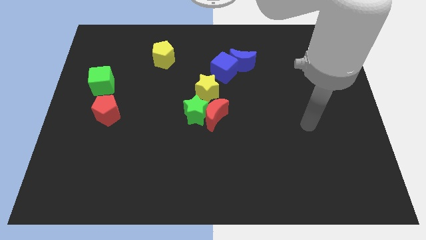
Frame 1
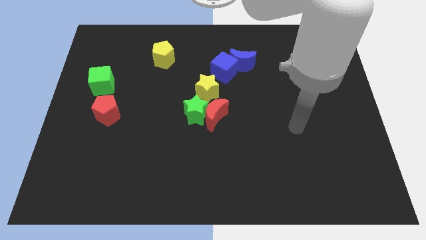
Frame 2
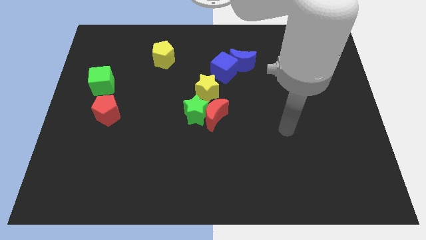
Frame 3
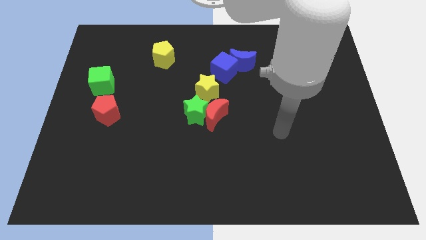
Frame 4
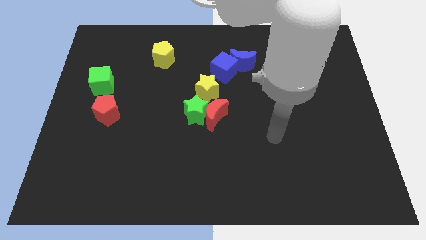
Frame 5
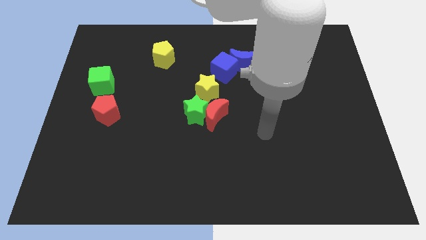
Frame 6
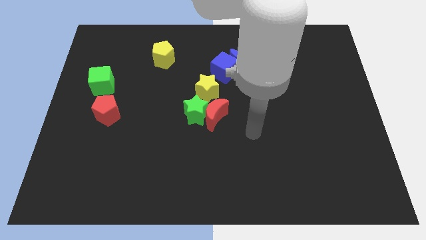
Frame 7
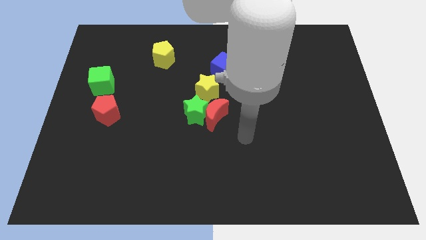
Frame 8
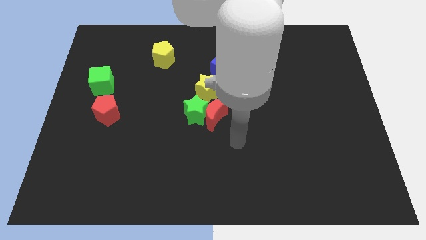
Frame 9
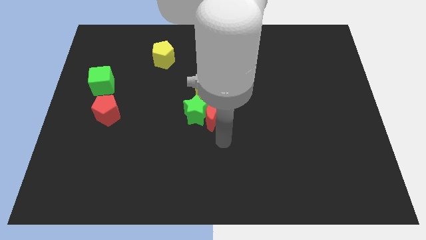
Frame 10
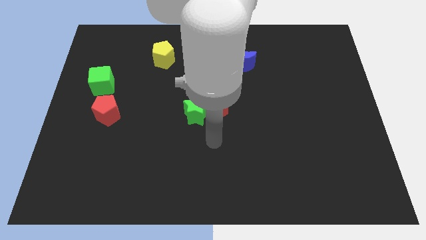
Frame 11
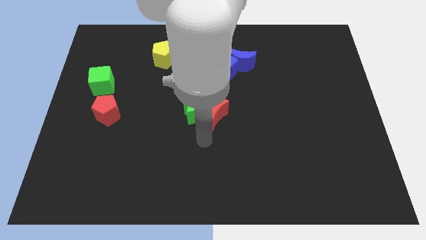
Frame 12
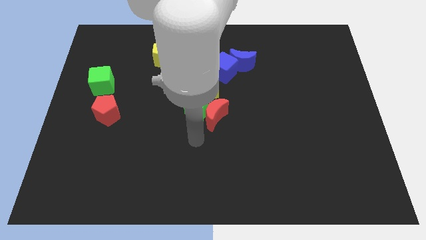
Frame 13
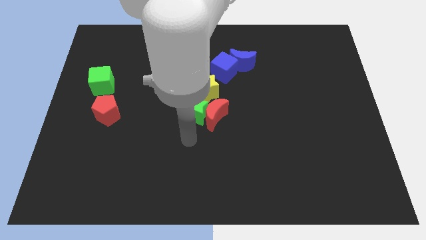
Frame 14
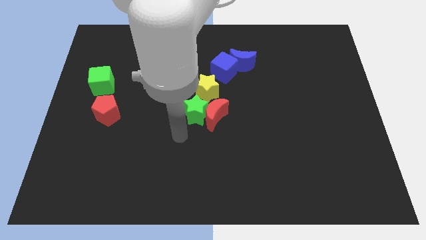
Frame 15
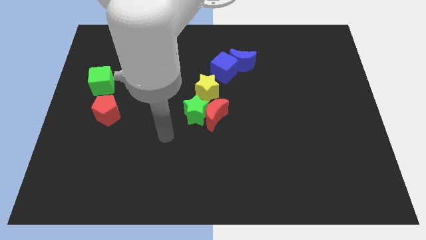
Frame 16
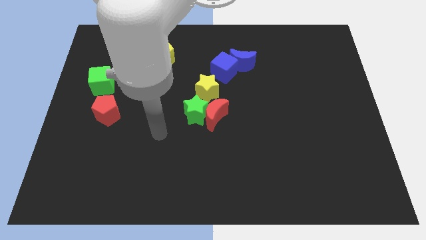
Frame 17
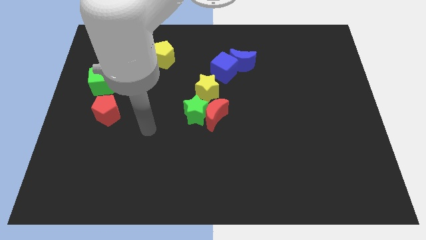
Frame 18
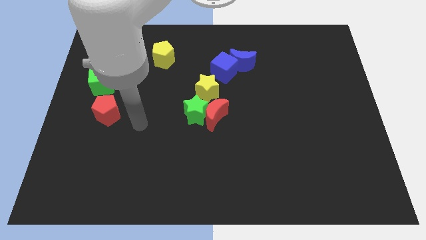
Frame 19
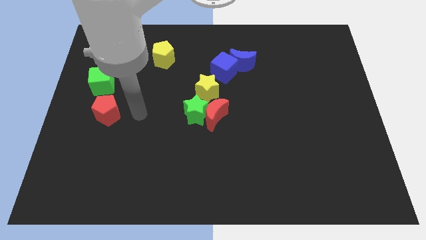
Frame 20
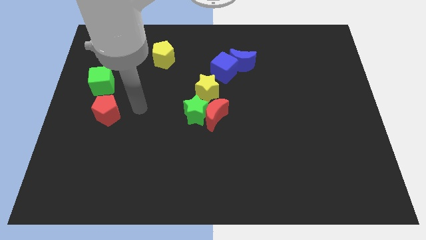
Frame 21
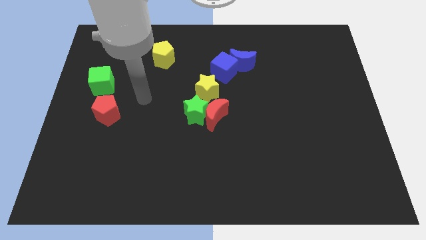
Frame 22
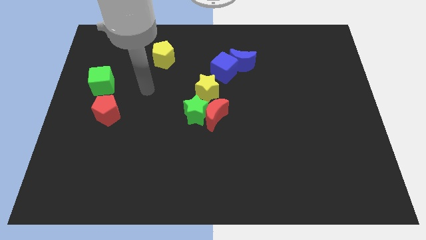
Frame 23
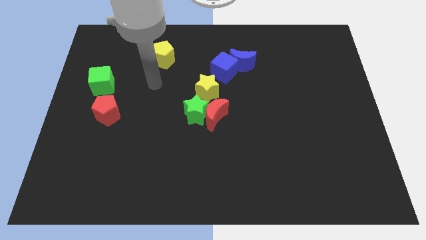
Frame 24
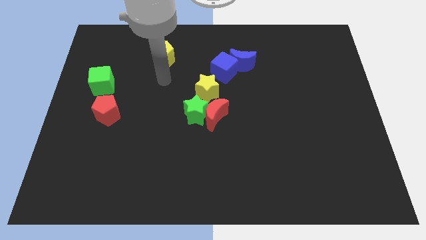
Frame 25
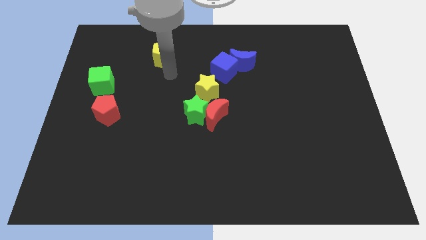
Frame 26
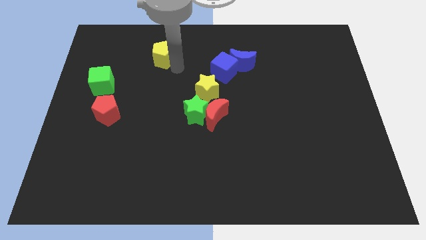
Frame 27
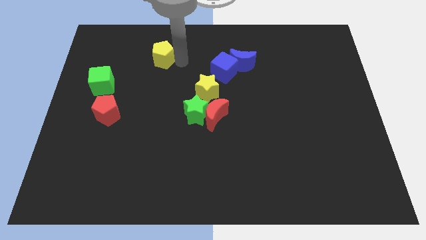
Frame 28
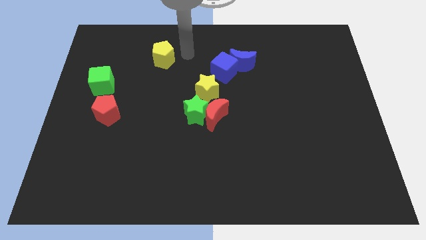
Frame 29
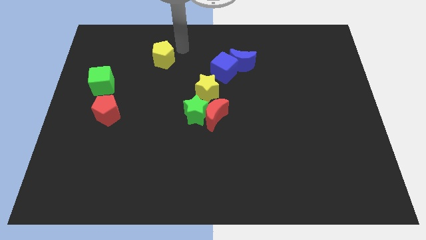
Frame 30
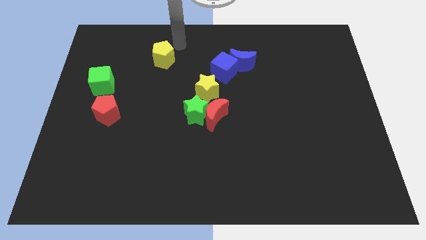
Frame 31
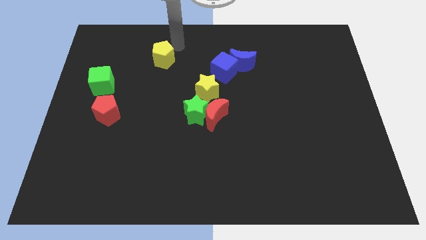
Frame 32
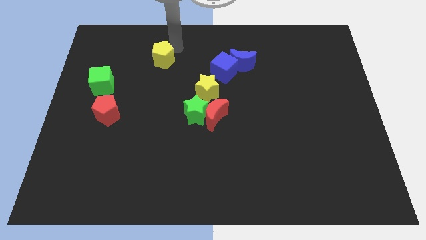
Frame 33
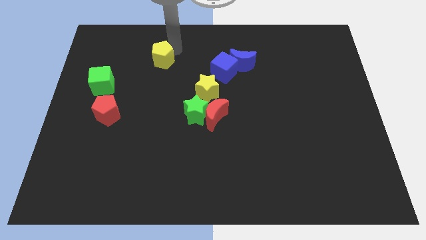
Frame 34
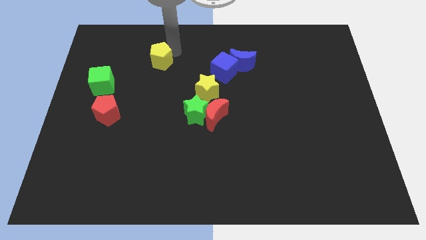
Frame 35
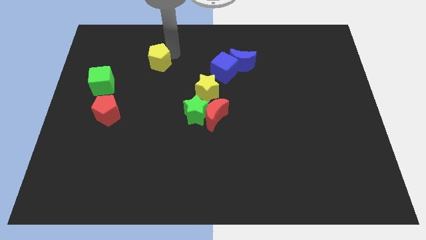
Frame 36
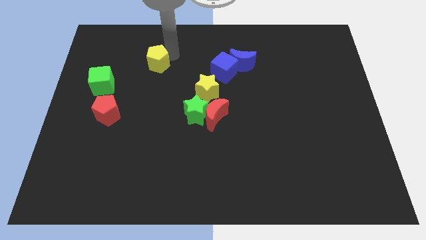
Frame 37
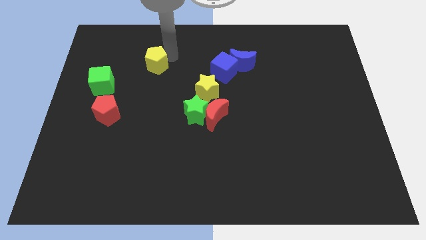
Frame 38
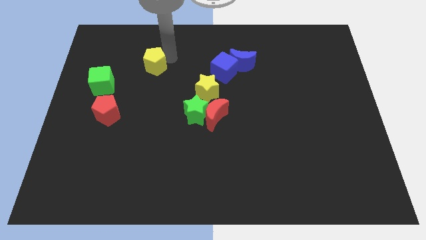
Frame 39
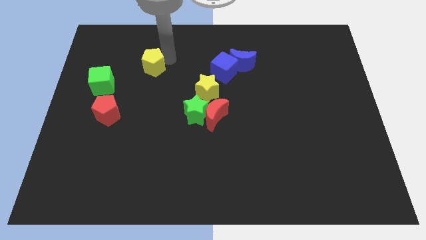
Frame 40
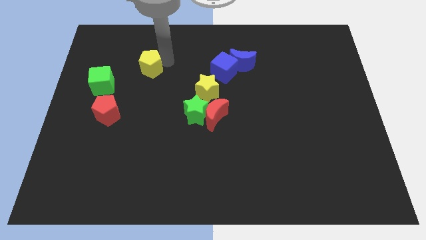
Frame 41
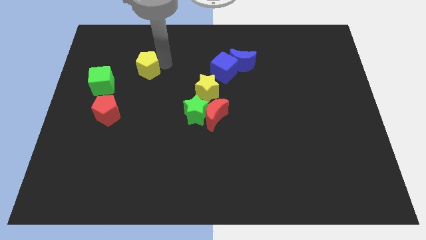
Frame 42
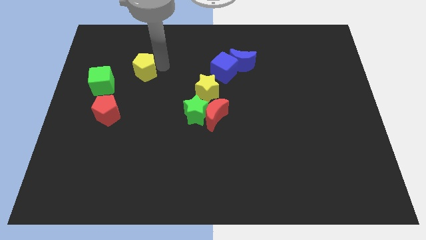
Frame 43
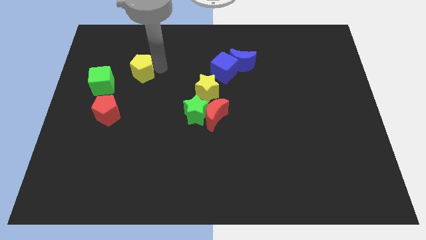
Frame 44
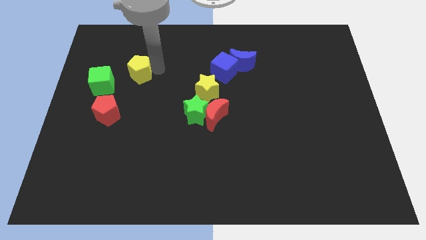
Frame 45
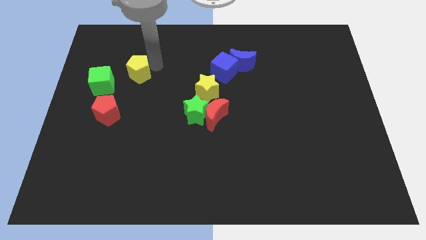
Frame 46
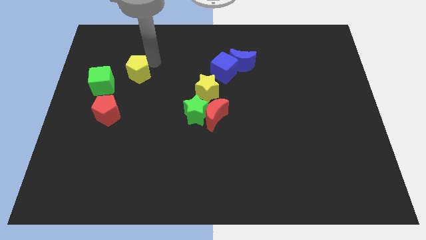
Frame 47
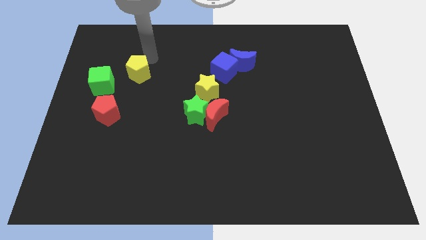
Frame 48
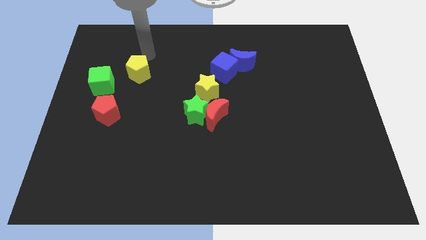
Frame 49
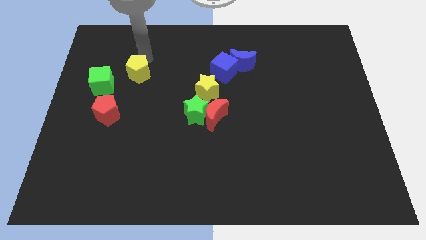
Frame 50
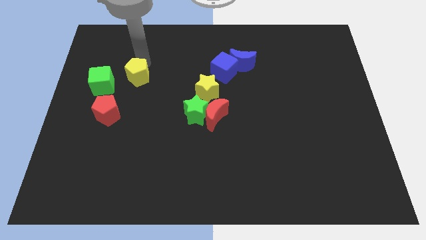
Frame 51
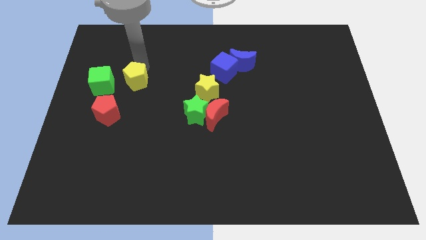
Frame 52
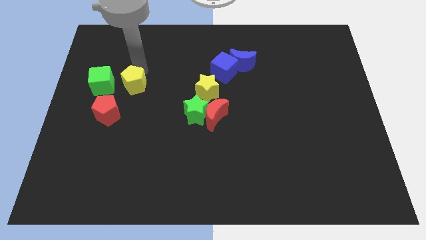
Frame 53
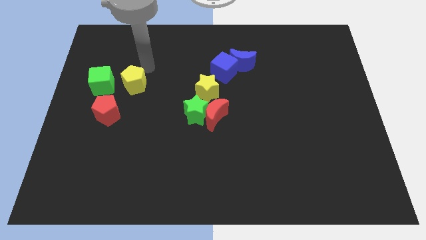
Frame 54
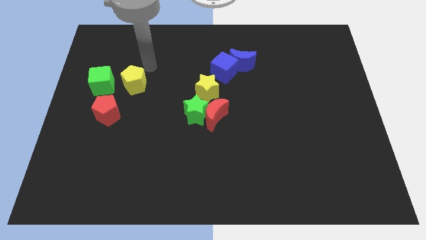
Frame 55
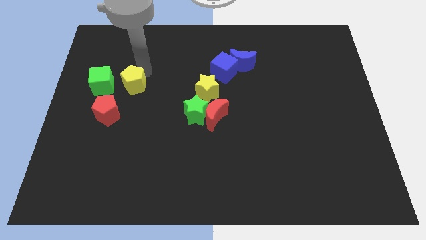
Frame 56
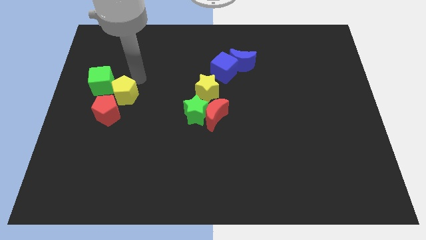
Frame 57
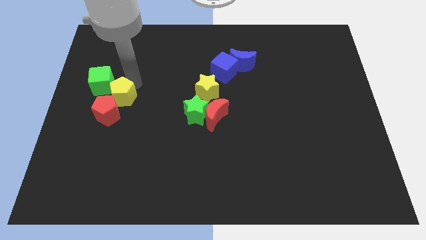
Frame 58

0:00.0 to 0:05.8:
move the yellow pentagon to the red pentagon
